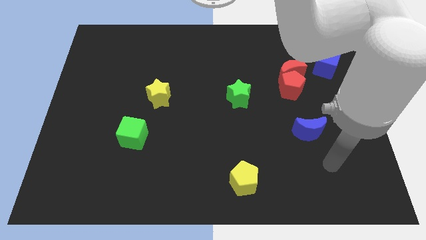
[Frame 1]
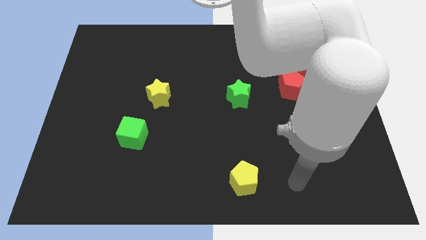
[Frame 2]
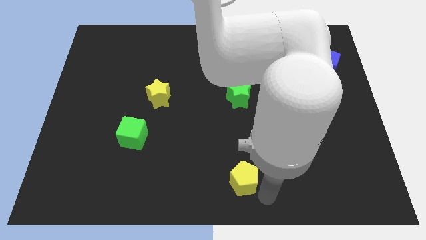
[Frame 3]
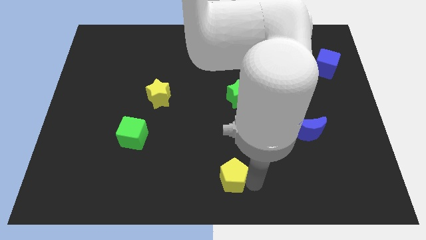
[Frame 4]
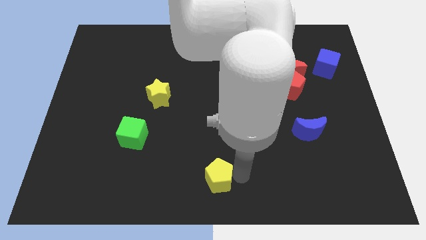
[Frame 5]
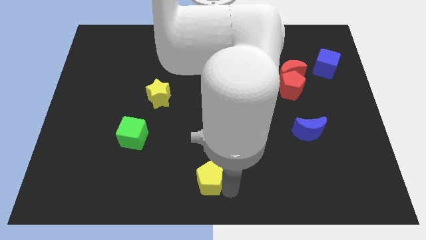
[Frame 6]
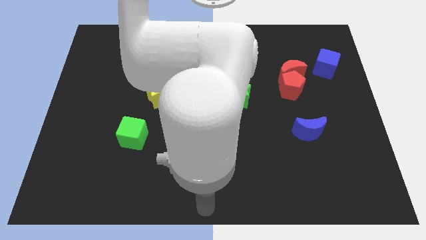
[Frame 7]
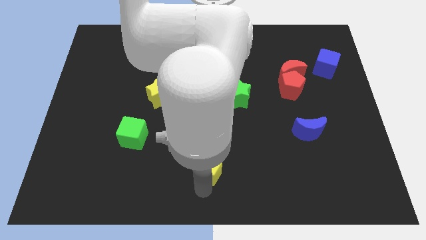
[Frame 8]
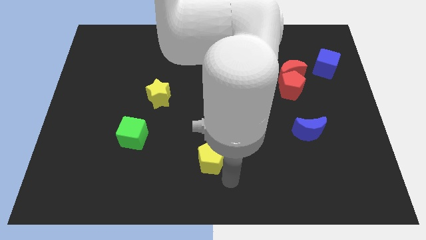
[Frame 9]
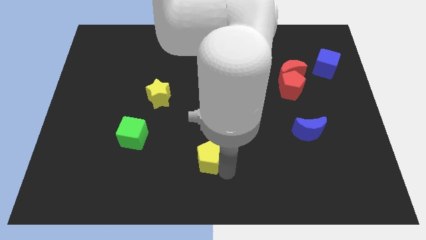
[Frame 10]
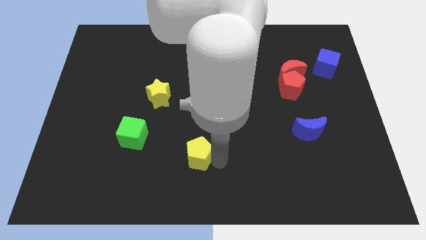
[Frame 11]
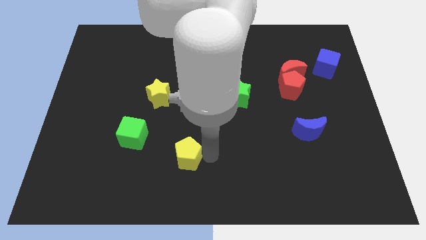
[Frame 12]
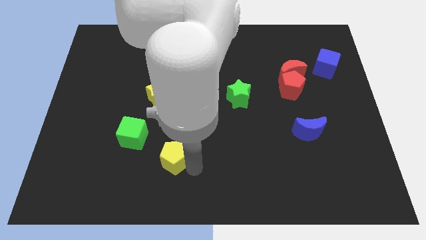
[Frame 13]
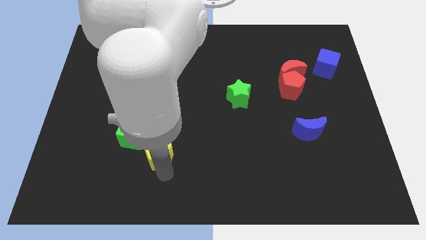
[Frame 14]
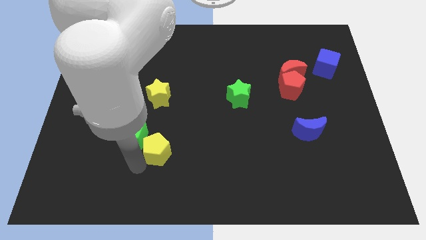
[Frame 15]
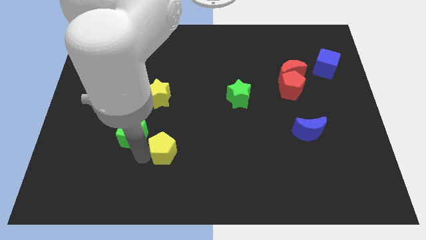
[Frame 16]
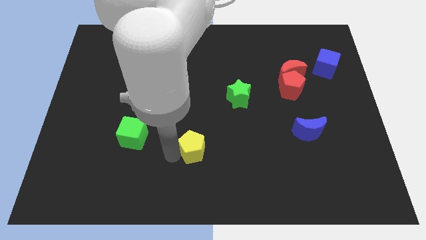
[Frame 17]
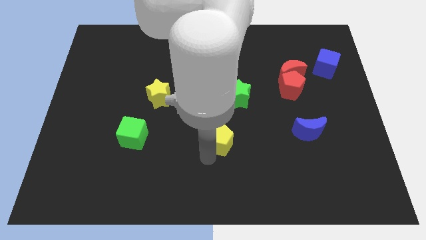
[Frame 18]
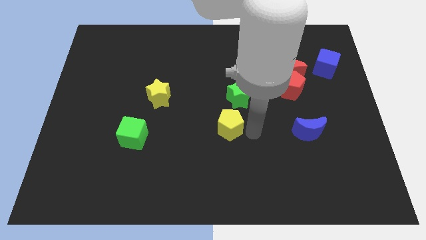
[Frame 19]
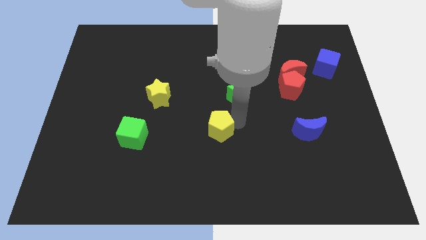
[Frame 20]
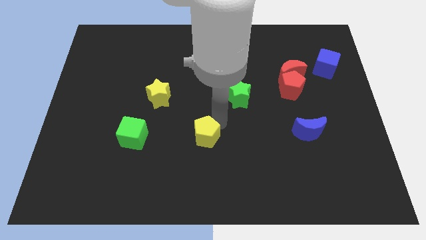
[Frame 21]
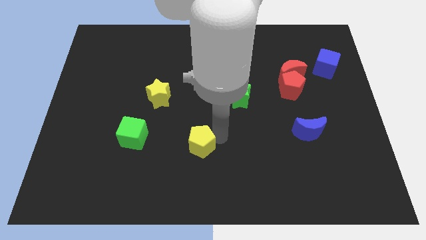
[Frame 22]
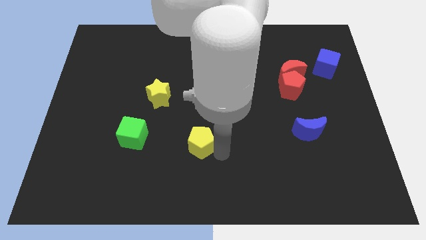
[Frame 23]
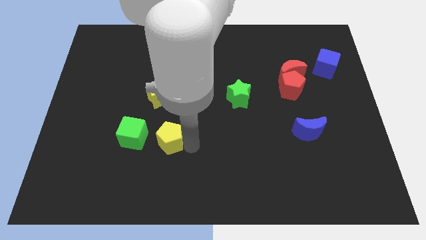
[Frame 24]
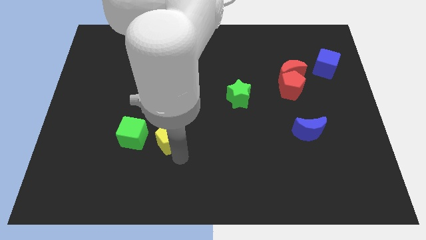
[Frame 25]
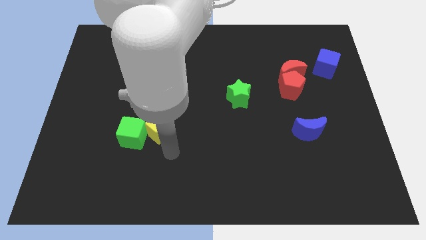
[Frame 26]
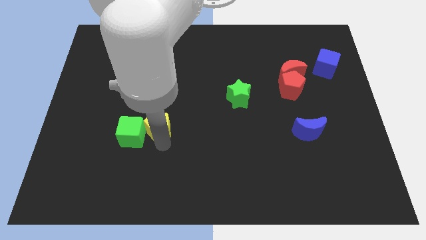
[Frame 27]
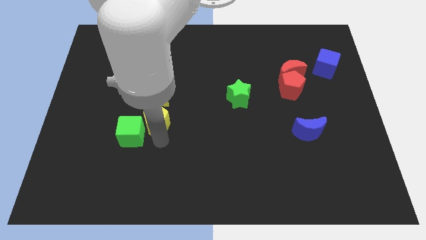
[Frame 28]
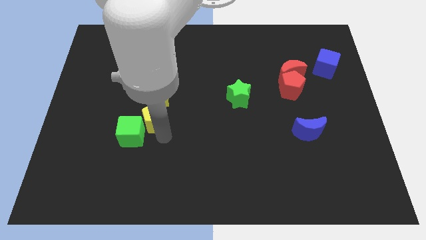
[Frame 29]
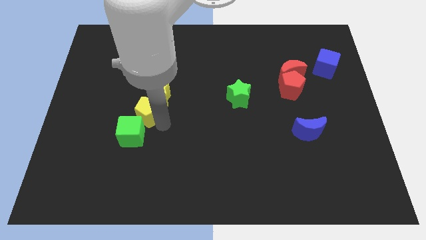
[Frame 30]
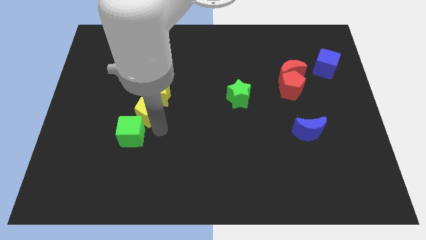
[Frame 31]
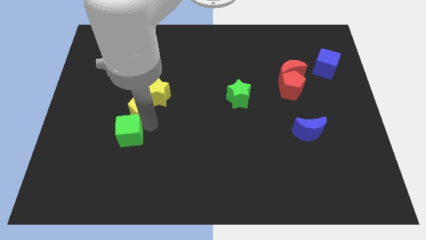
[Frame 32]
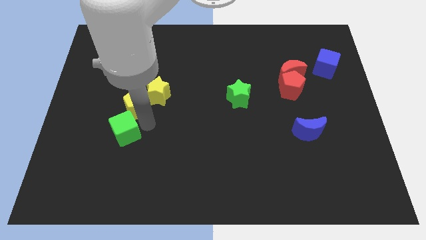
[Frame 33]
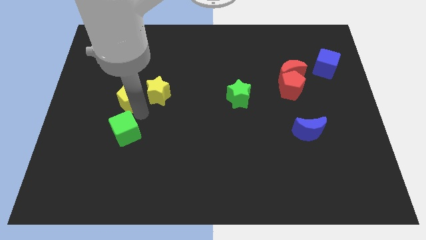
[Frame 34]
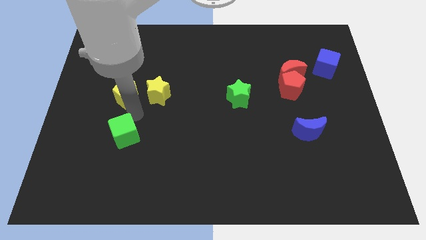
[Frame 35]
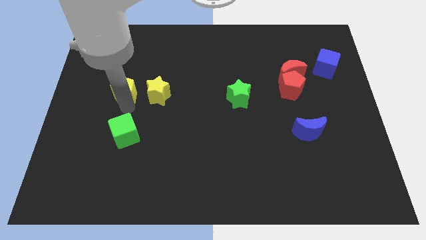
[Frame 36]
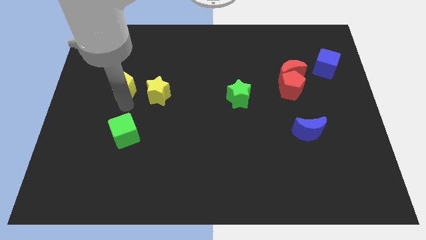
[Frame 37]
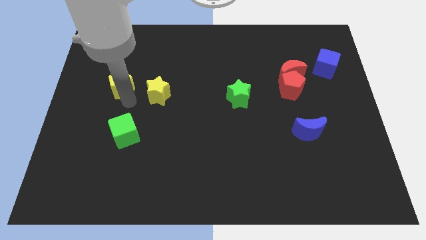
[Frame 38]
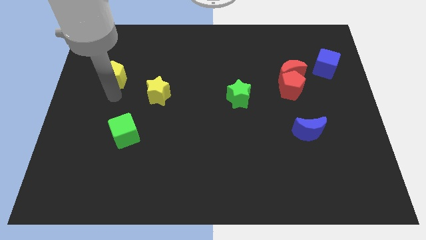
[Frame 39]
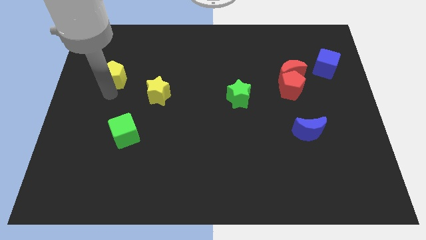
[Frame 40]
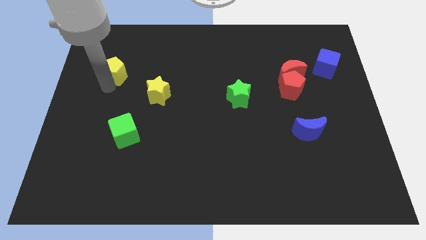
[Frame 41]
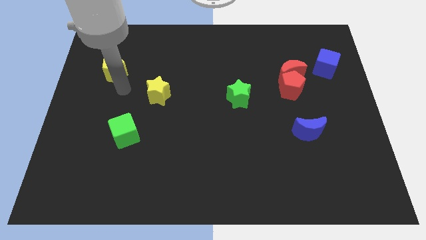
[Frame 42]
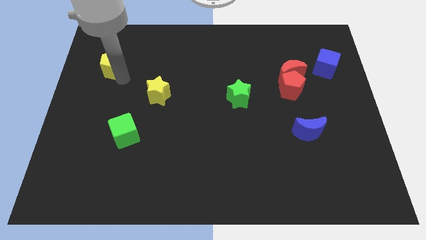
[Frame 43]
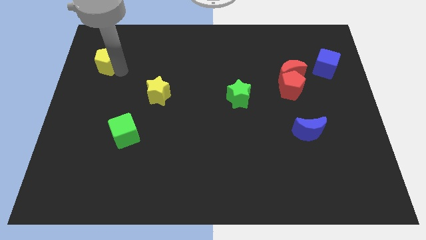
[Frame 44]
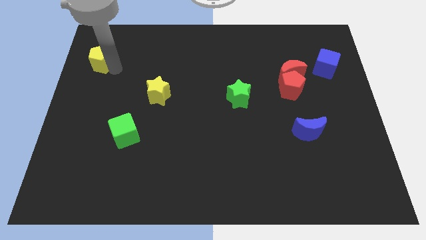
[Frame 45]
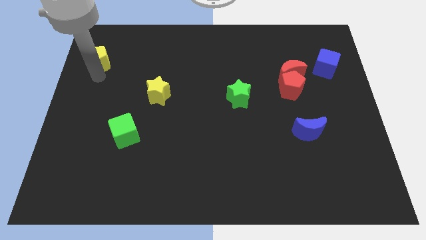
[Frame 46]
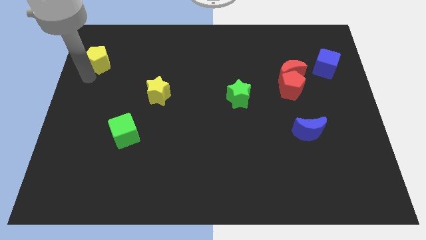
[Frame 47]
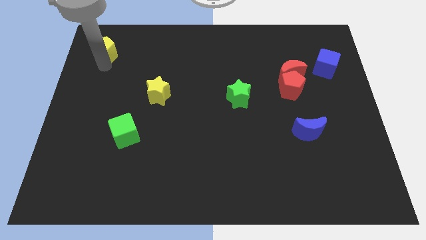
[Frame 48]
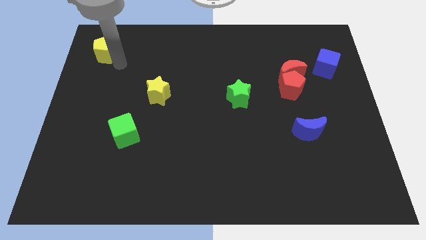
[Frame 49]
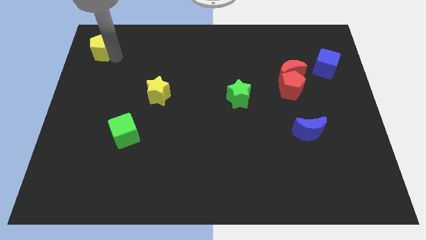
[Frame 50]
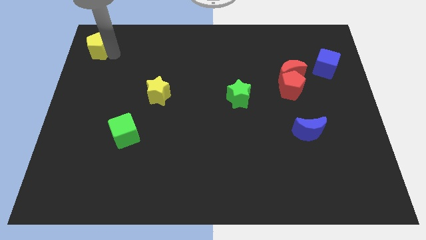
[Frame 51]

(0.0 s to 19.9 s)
put the yellow pentagon to the top left

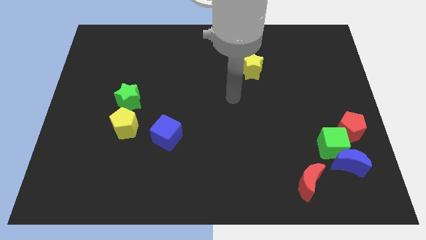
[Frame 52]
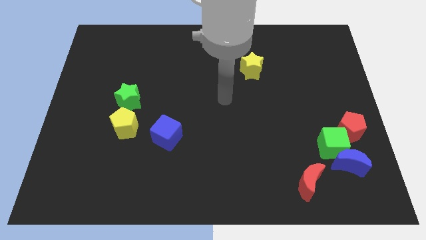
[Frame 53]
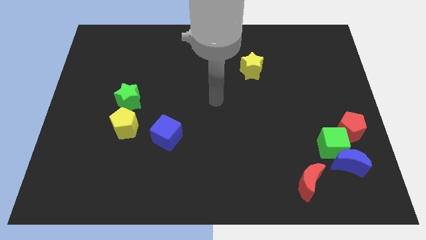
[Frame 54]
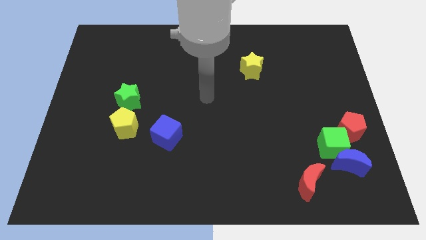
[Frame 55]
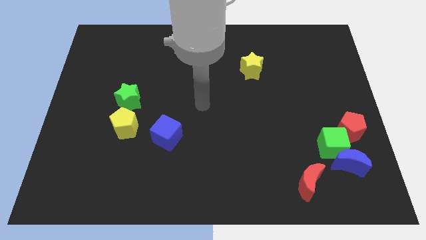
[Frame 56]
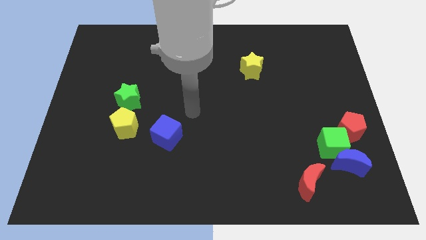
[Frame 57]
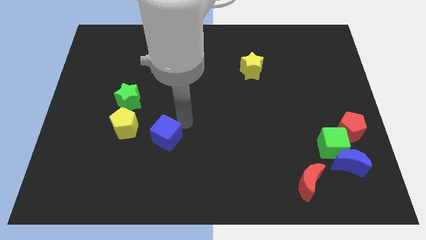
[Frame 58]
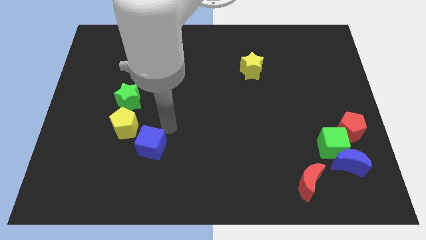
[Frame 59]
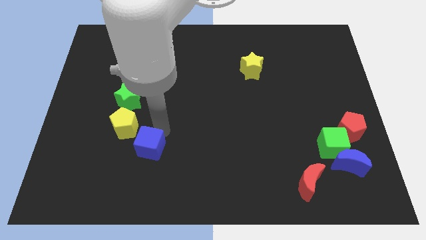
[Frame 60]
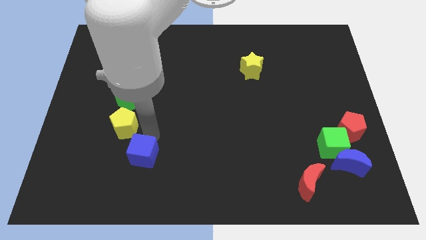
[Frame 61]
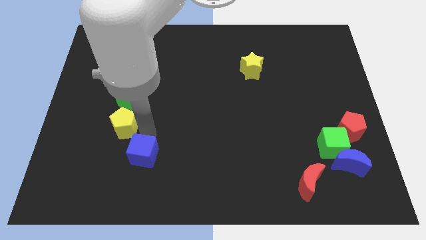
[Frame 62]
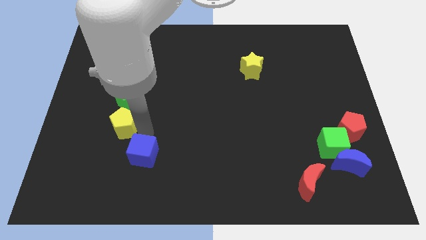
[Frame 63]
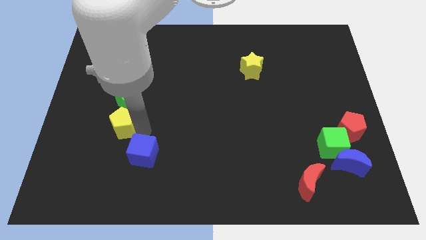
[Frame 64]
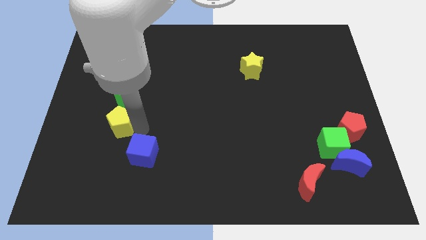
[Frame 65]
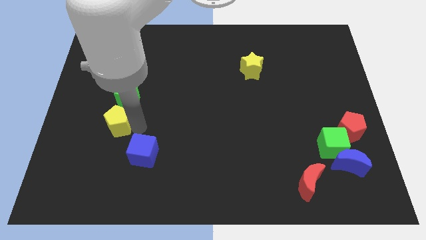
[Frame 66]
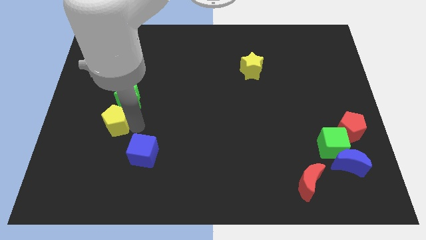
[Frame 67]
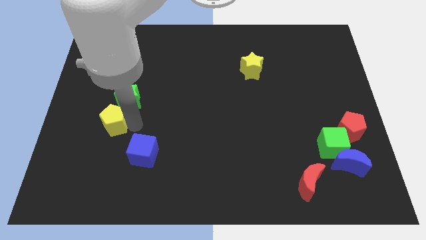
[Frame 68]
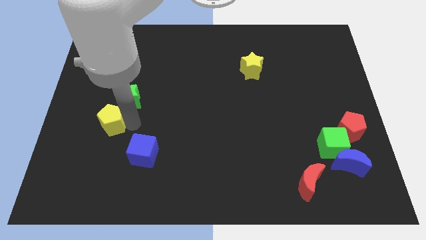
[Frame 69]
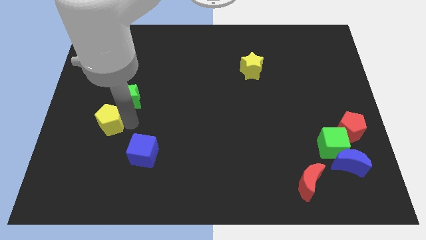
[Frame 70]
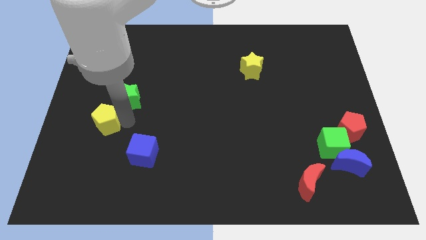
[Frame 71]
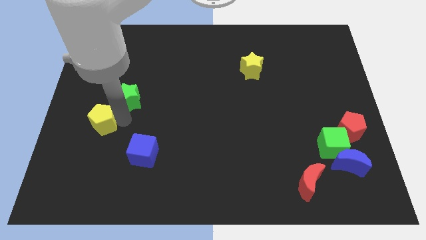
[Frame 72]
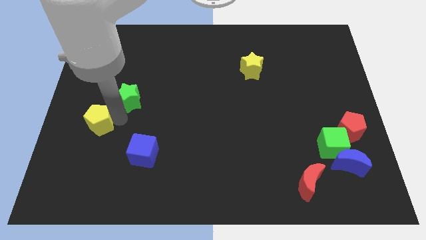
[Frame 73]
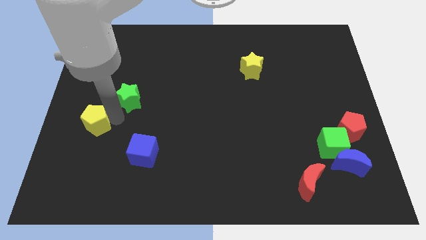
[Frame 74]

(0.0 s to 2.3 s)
slide the yellow pentagon to the left side of the board
